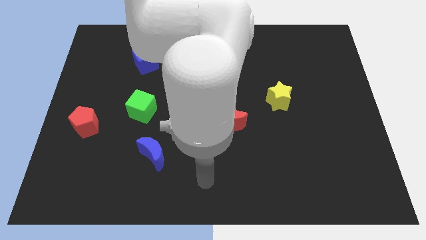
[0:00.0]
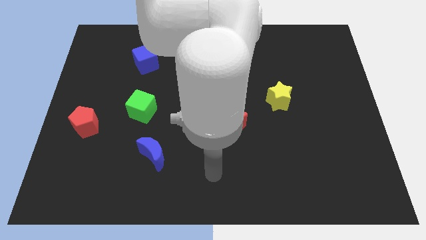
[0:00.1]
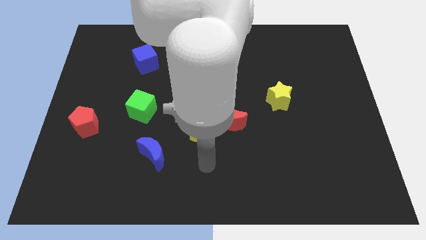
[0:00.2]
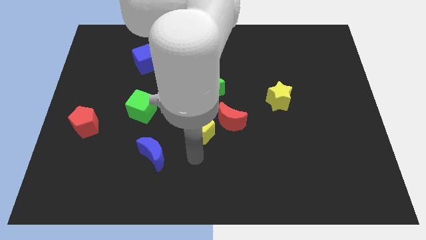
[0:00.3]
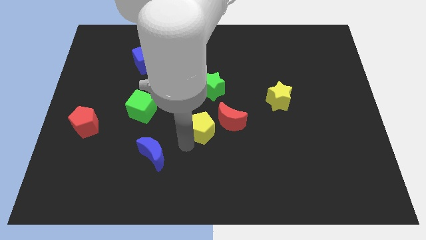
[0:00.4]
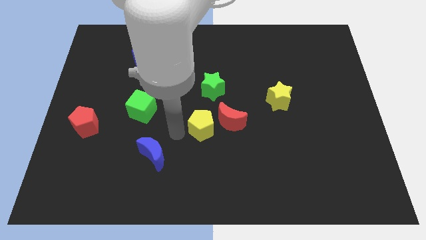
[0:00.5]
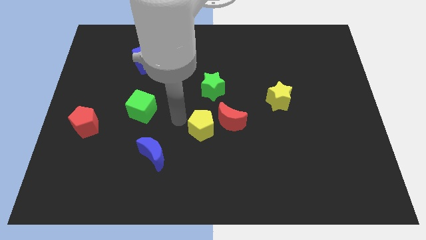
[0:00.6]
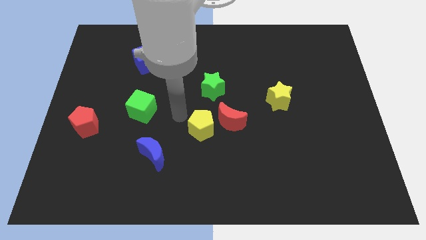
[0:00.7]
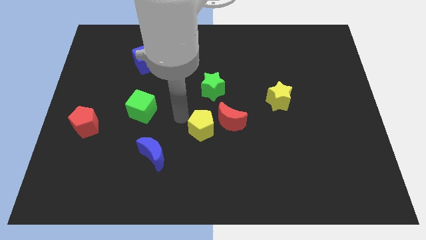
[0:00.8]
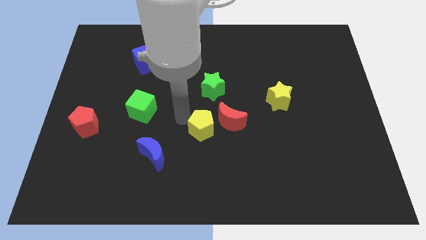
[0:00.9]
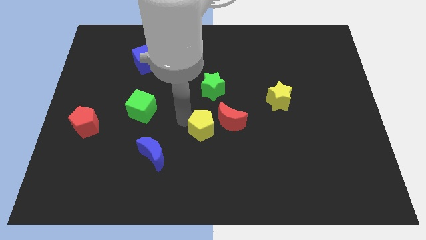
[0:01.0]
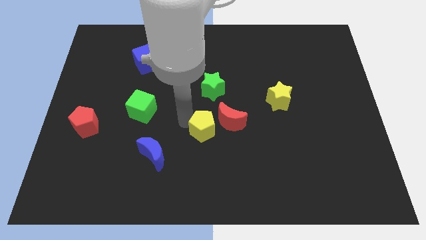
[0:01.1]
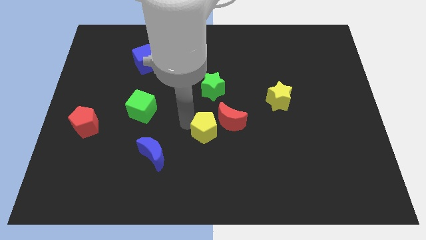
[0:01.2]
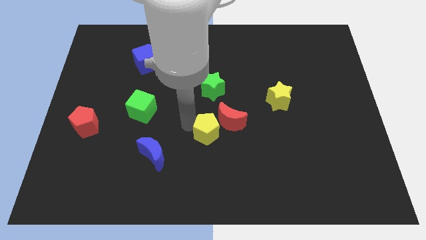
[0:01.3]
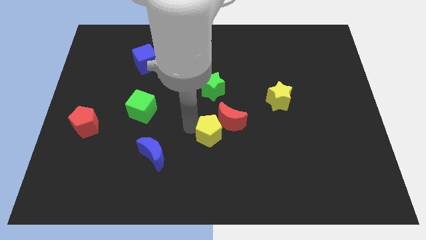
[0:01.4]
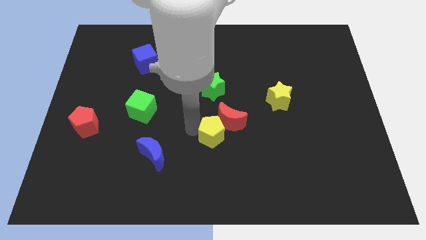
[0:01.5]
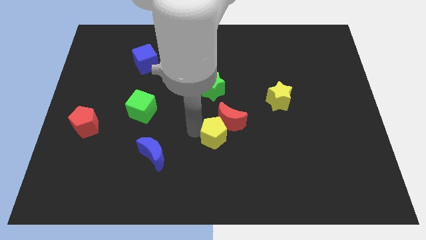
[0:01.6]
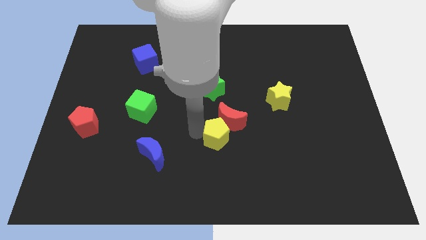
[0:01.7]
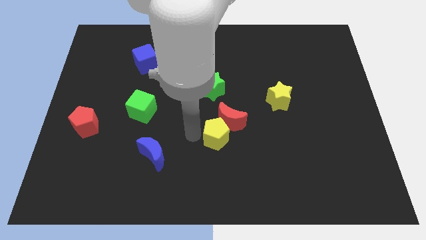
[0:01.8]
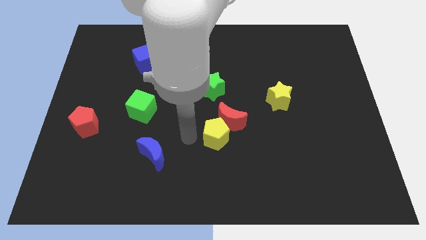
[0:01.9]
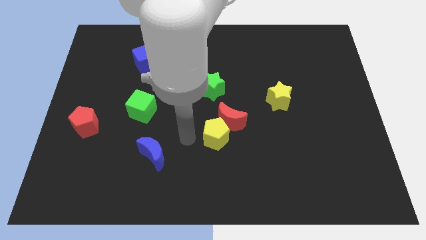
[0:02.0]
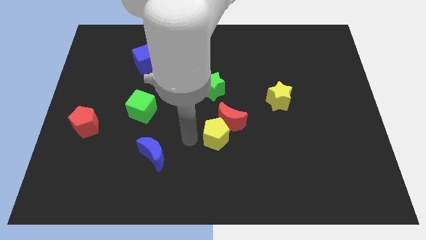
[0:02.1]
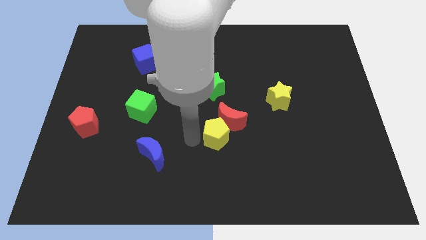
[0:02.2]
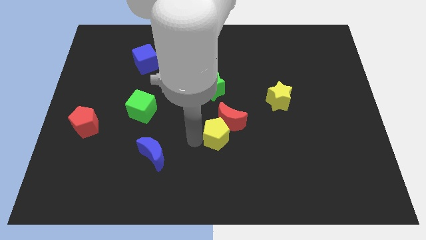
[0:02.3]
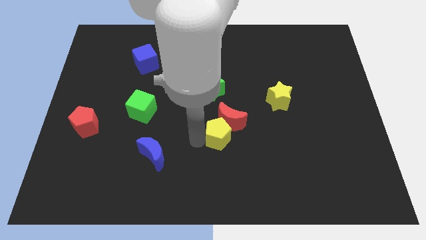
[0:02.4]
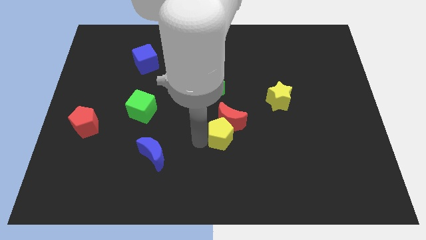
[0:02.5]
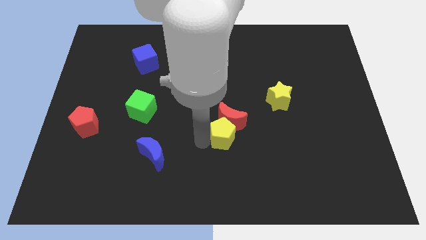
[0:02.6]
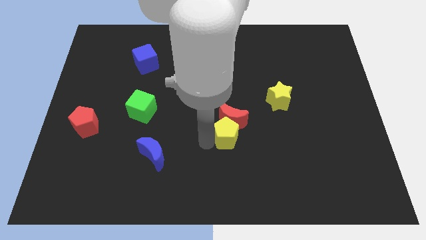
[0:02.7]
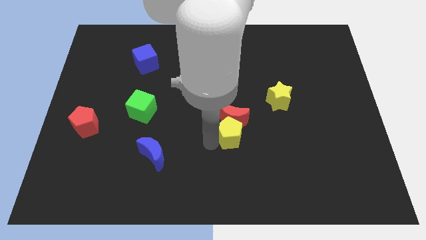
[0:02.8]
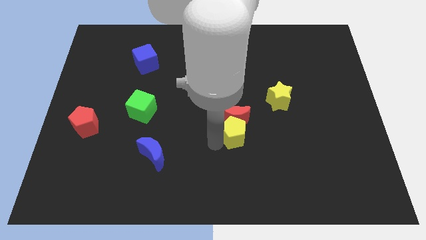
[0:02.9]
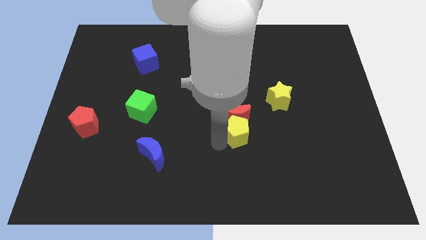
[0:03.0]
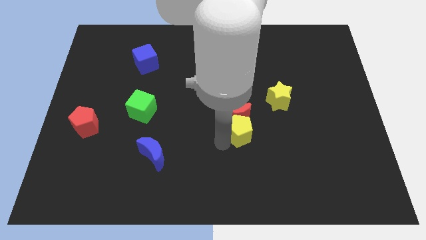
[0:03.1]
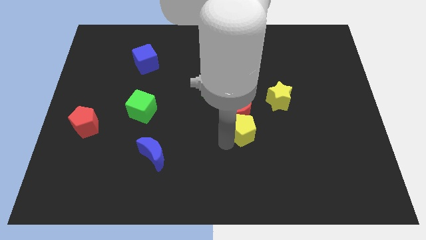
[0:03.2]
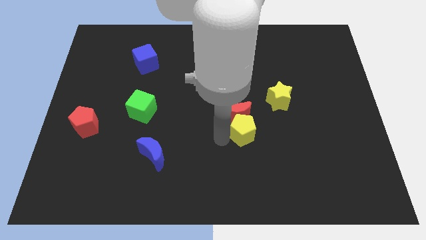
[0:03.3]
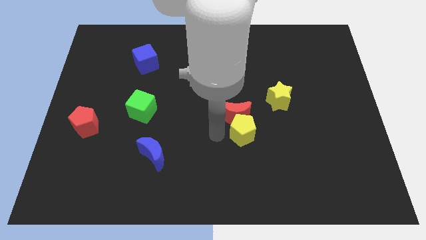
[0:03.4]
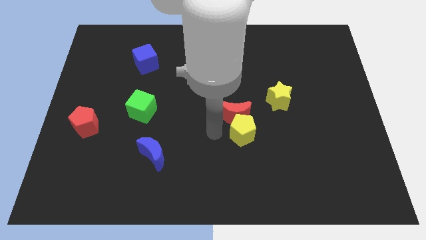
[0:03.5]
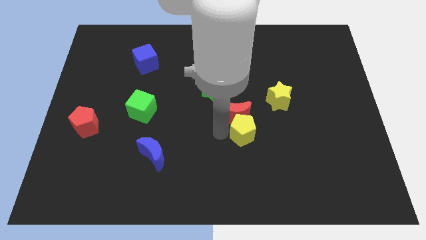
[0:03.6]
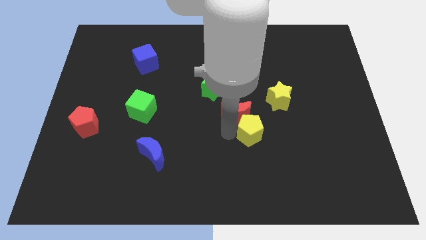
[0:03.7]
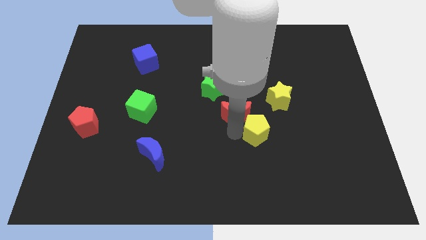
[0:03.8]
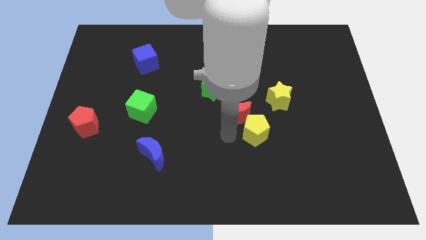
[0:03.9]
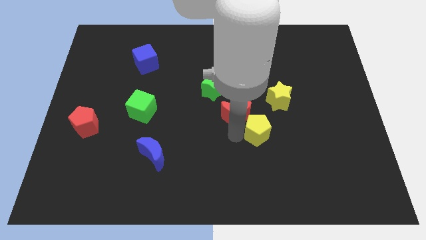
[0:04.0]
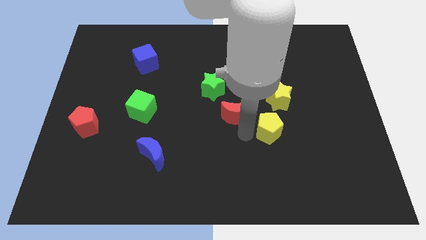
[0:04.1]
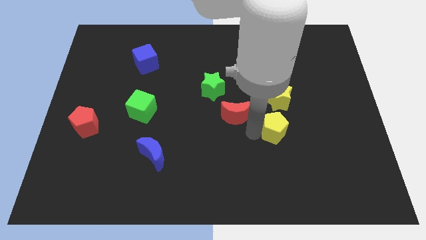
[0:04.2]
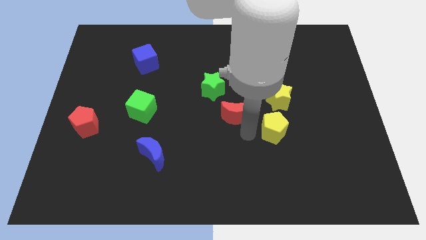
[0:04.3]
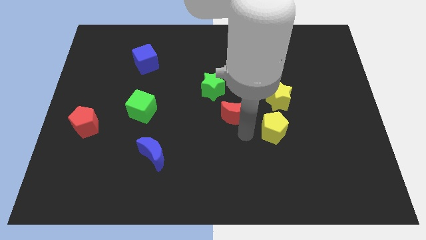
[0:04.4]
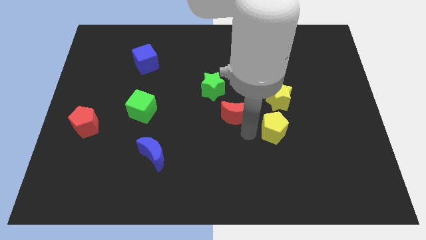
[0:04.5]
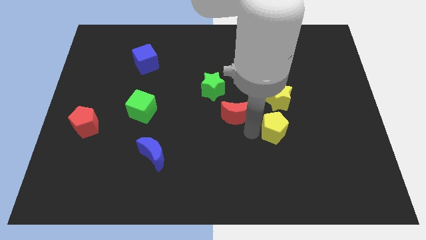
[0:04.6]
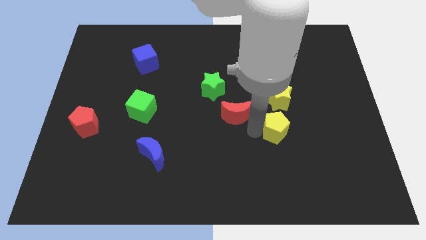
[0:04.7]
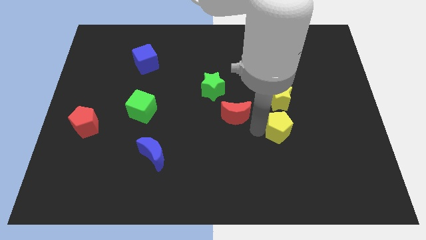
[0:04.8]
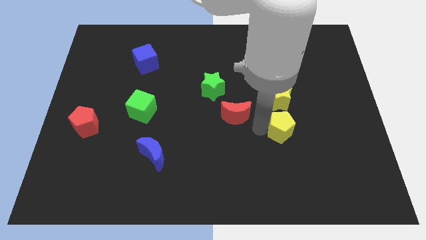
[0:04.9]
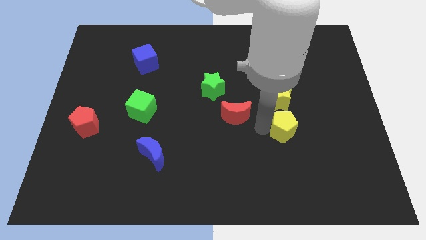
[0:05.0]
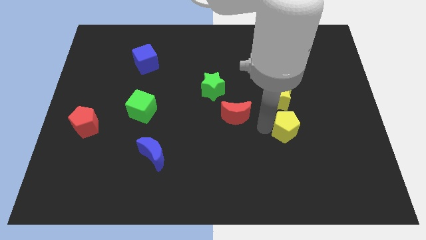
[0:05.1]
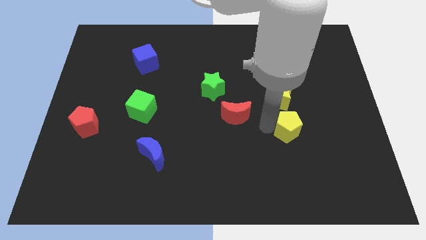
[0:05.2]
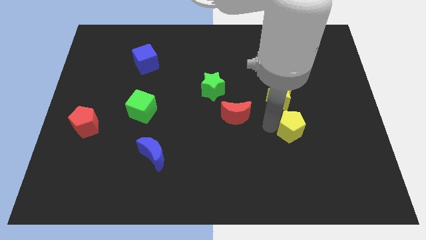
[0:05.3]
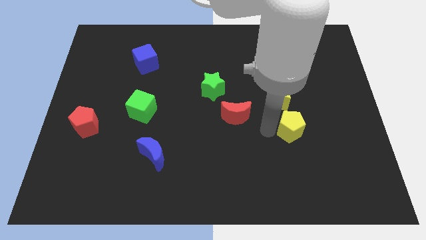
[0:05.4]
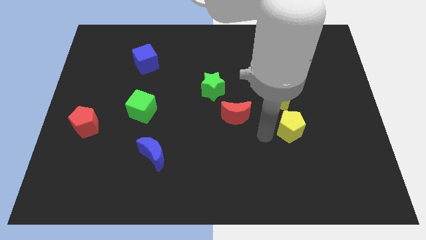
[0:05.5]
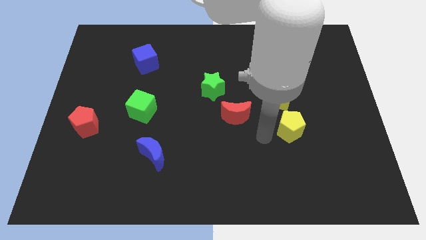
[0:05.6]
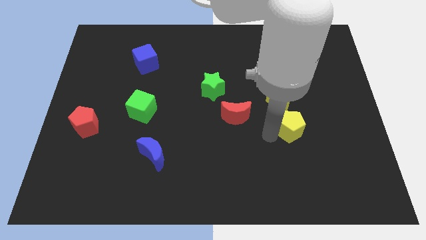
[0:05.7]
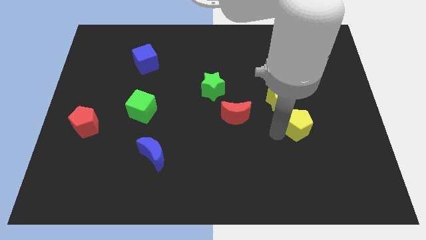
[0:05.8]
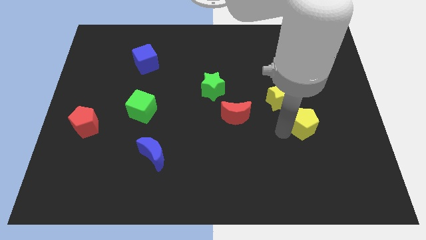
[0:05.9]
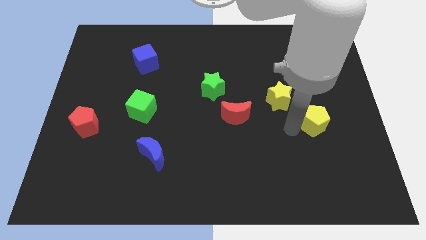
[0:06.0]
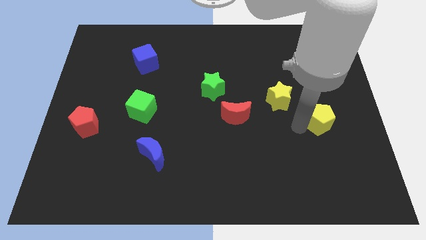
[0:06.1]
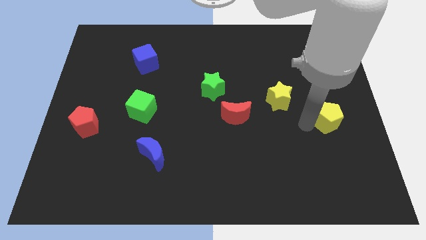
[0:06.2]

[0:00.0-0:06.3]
slide the yellow pentagon to the right side of the board

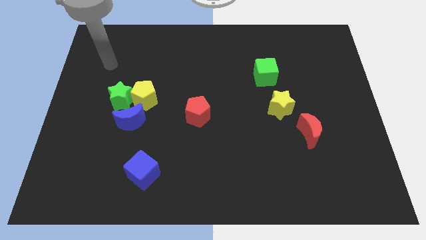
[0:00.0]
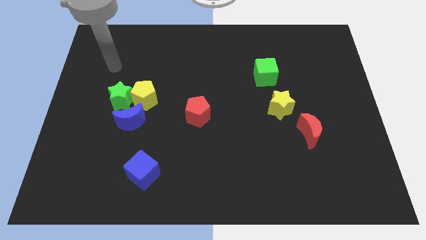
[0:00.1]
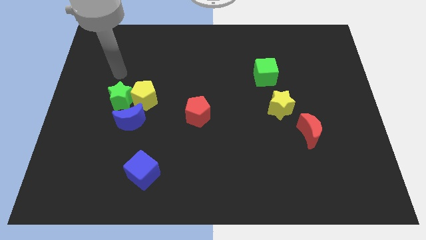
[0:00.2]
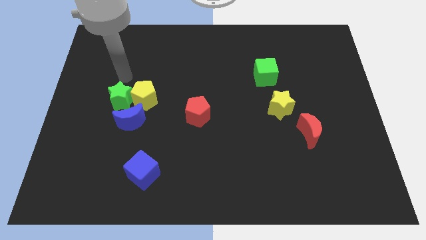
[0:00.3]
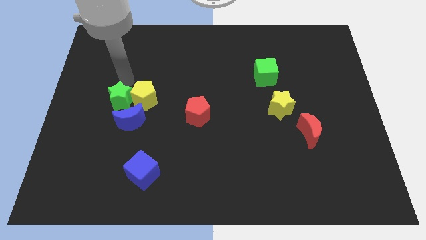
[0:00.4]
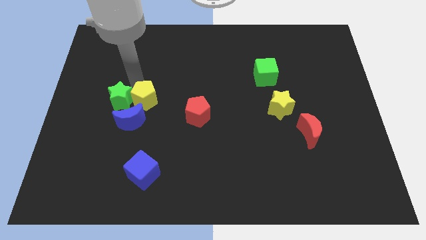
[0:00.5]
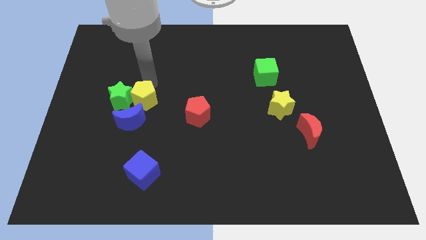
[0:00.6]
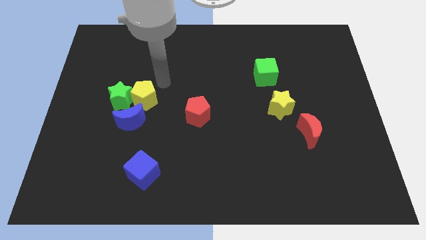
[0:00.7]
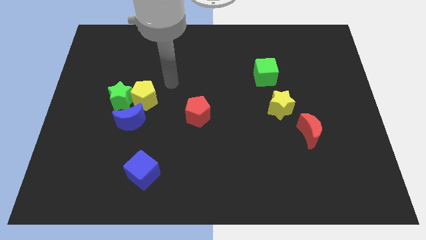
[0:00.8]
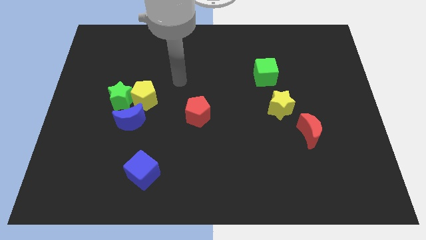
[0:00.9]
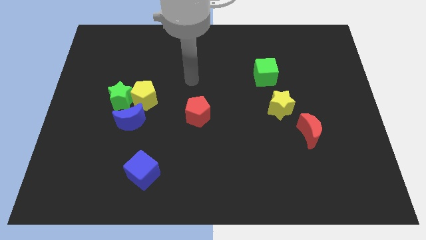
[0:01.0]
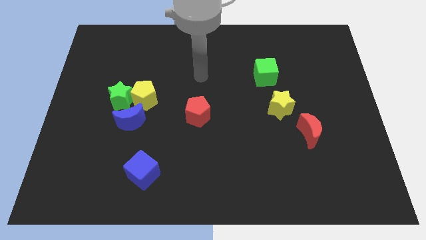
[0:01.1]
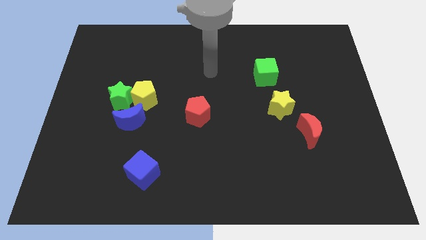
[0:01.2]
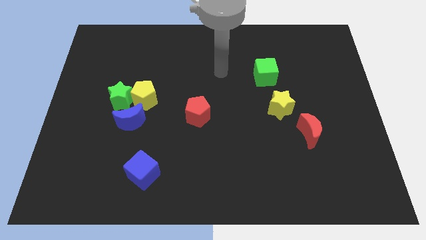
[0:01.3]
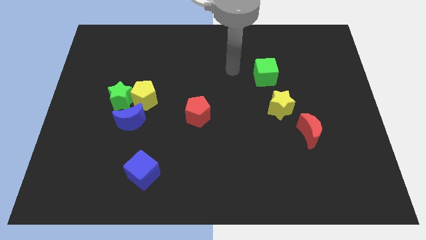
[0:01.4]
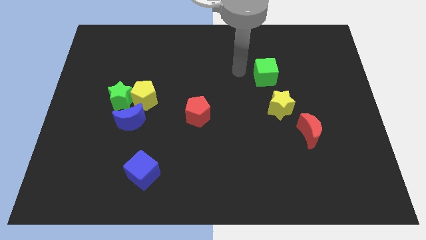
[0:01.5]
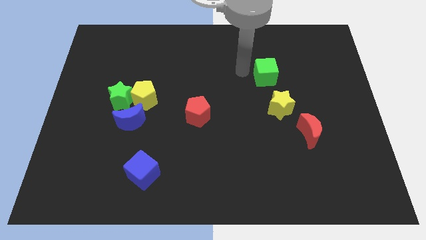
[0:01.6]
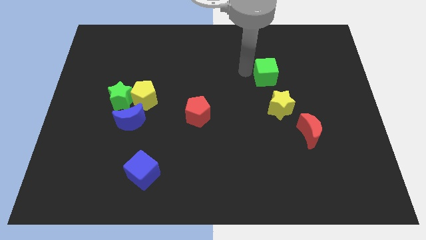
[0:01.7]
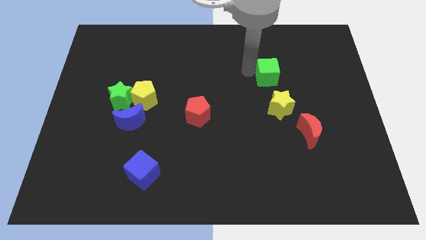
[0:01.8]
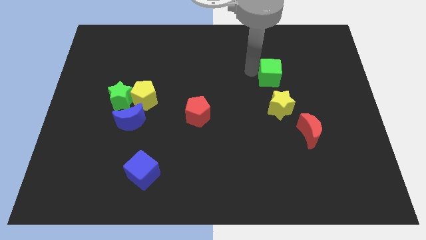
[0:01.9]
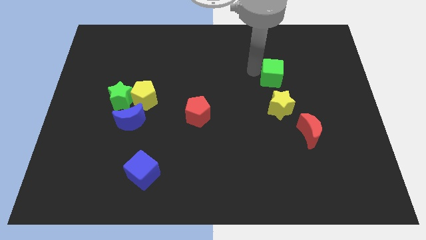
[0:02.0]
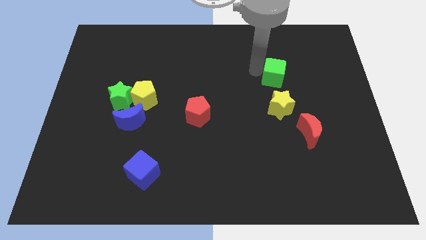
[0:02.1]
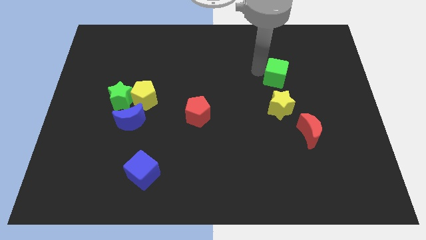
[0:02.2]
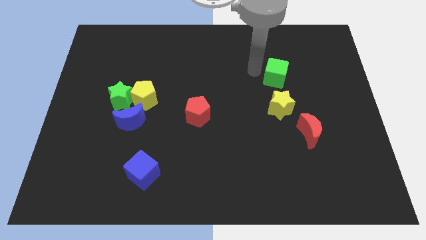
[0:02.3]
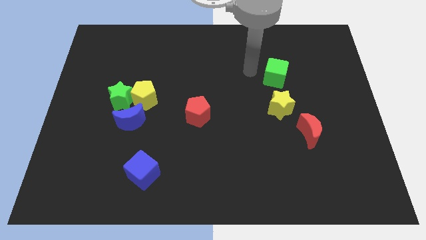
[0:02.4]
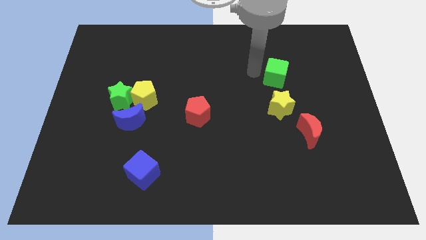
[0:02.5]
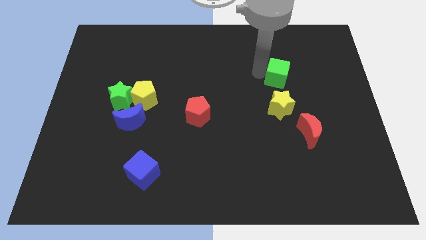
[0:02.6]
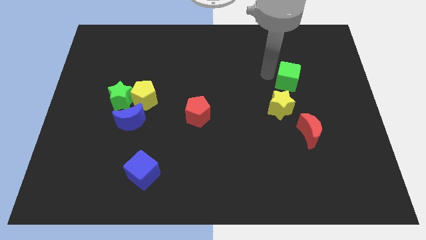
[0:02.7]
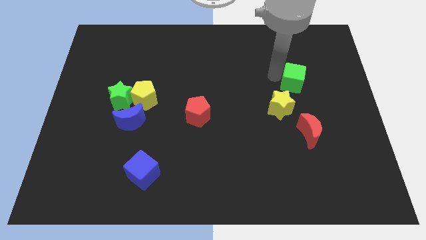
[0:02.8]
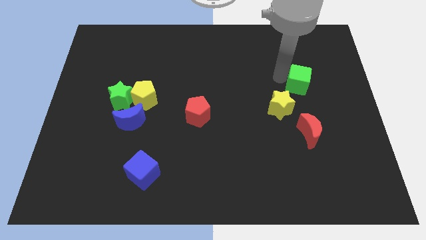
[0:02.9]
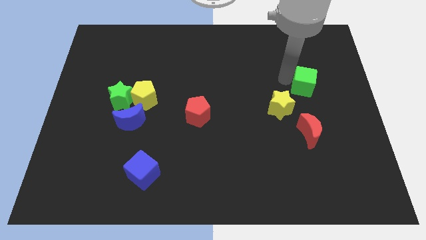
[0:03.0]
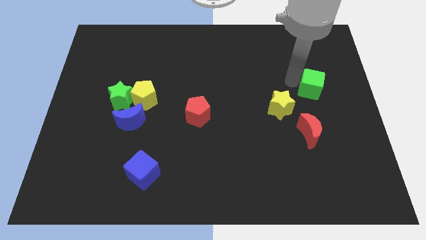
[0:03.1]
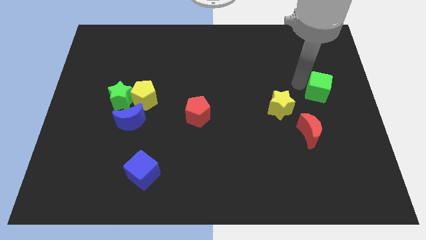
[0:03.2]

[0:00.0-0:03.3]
slide the green cube to the right side of the board
